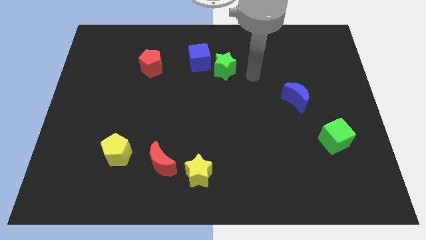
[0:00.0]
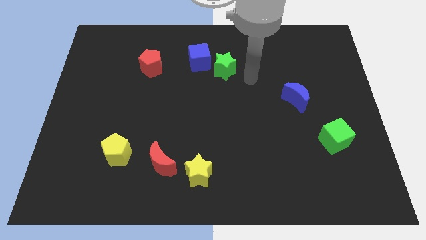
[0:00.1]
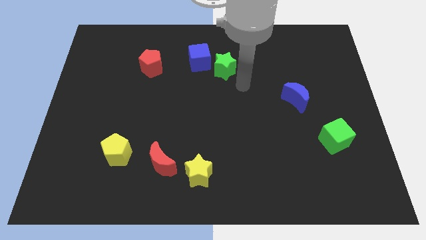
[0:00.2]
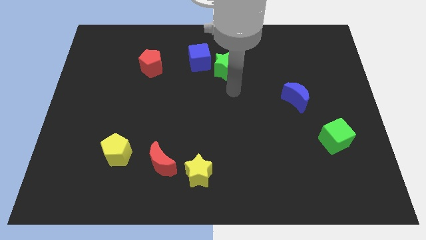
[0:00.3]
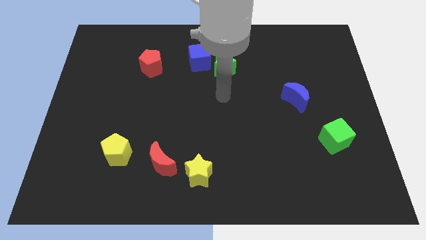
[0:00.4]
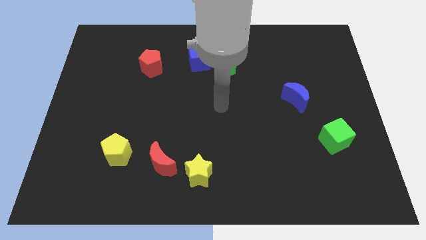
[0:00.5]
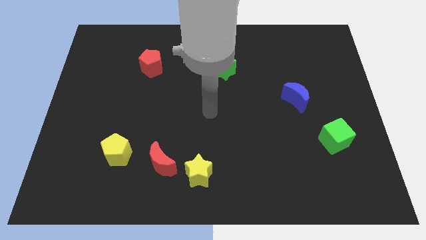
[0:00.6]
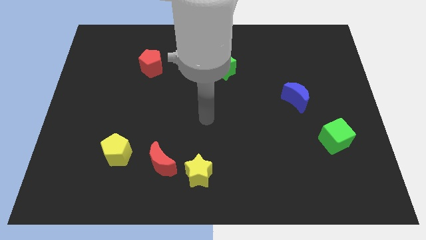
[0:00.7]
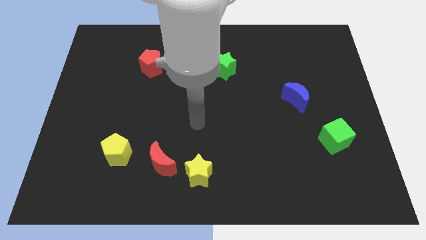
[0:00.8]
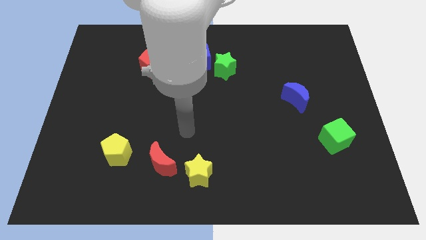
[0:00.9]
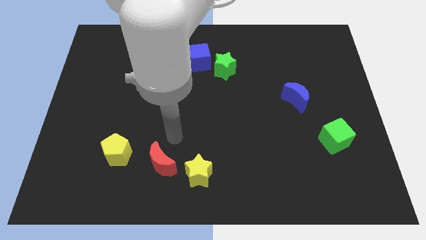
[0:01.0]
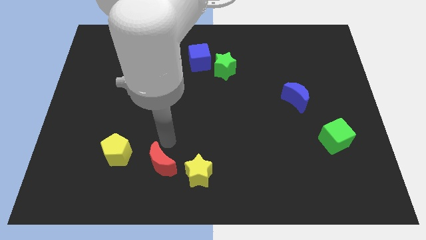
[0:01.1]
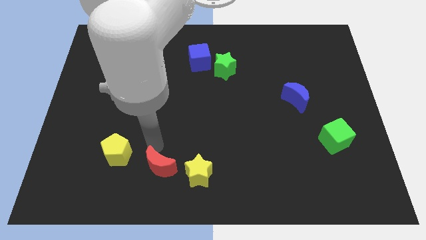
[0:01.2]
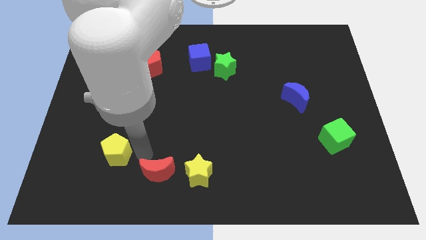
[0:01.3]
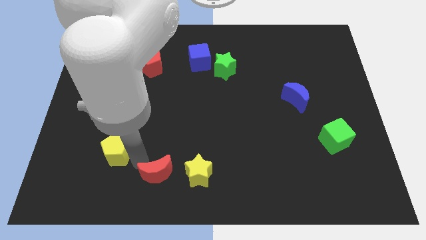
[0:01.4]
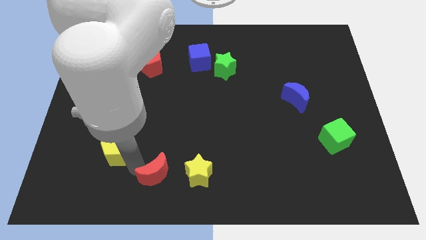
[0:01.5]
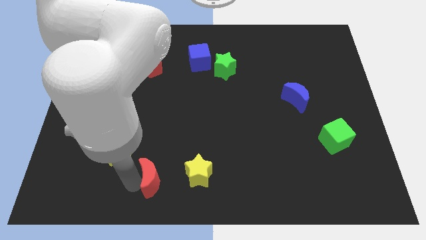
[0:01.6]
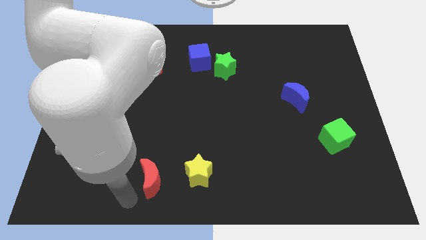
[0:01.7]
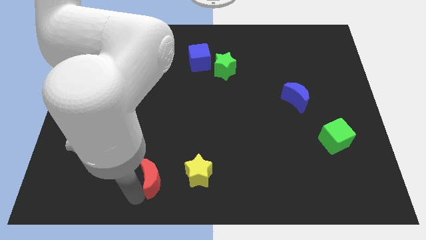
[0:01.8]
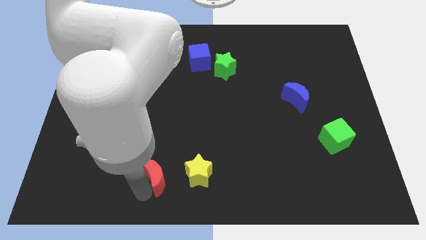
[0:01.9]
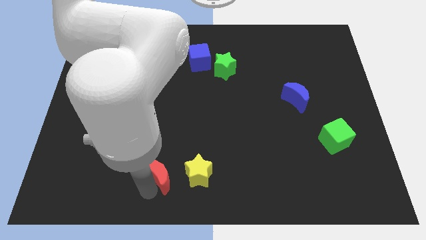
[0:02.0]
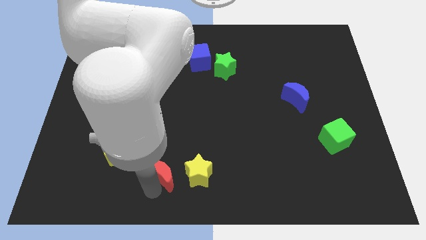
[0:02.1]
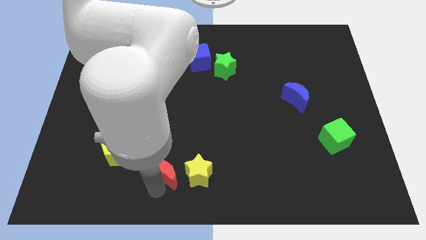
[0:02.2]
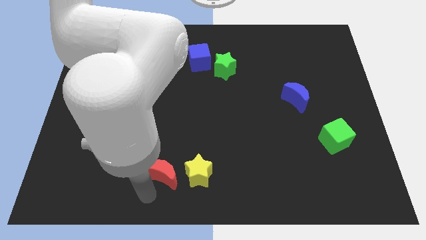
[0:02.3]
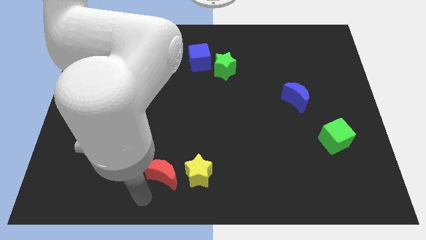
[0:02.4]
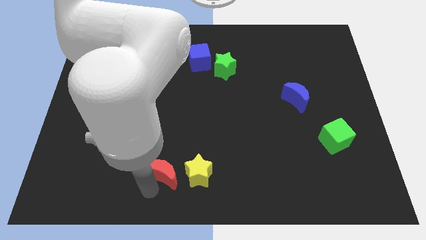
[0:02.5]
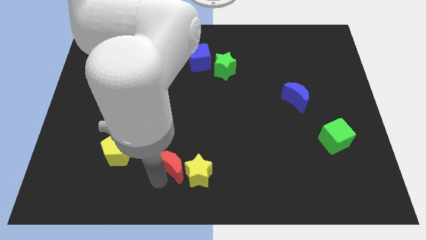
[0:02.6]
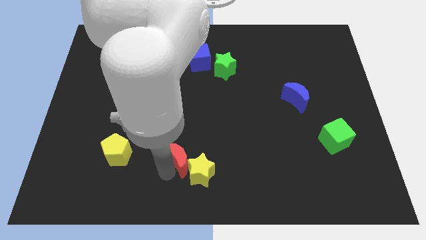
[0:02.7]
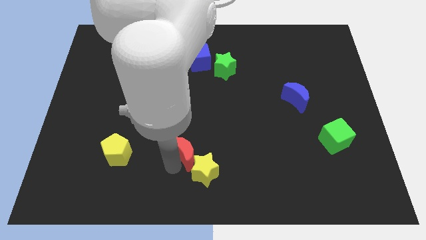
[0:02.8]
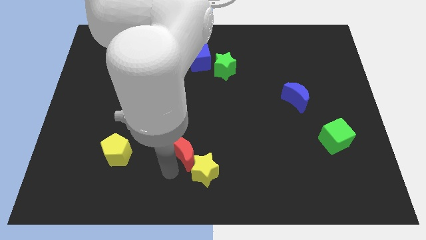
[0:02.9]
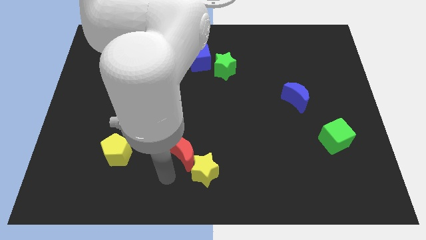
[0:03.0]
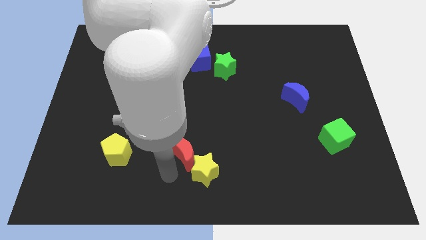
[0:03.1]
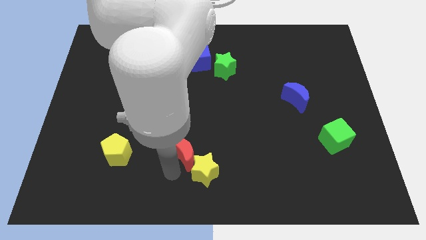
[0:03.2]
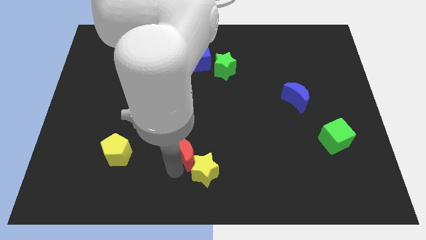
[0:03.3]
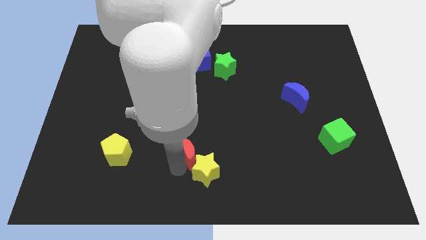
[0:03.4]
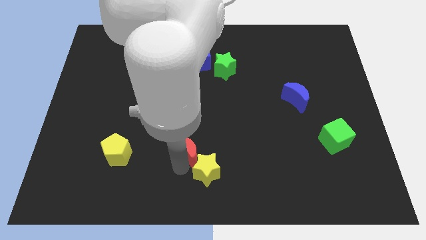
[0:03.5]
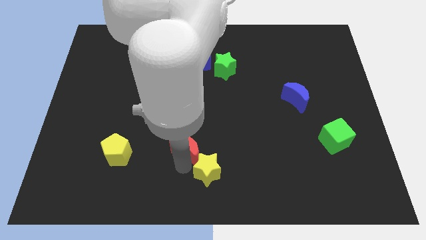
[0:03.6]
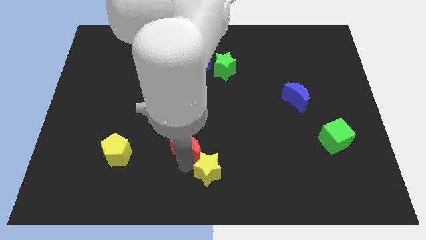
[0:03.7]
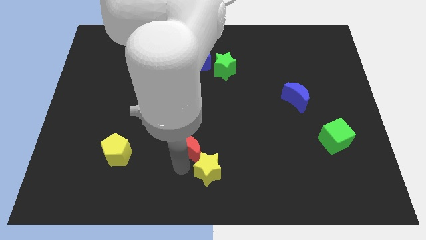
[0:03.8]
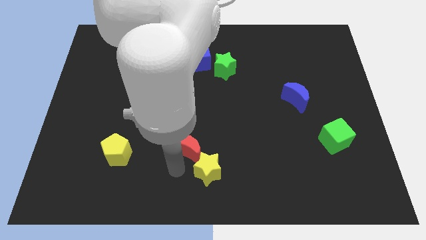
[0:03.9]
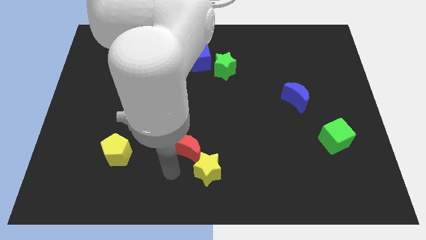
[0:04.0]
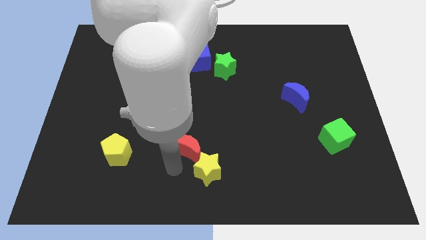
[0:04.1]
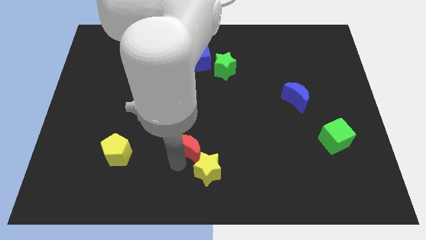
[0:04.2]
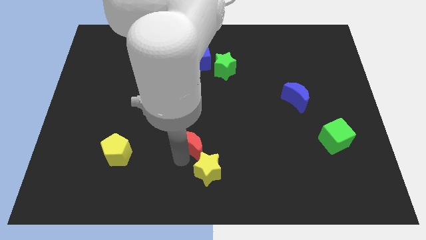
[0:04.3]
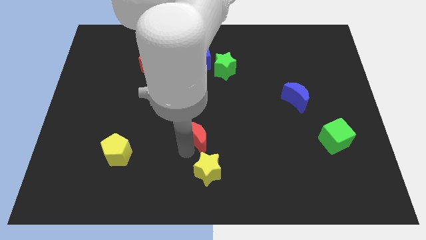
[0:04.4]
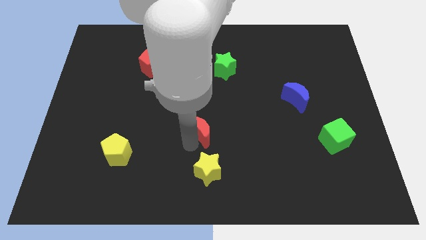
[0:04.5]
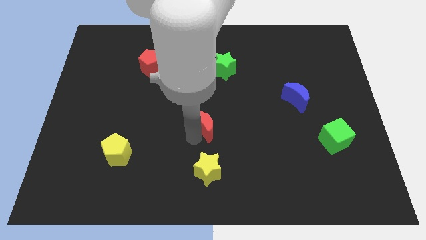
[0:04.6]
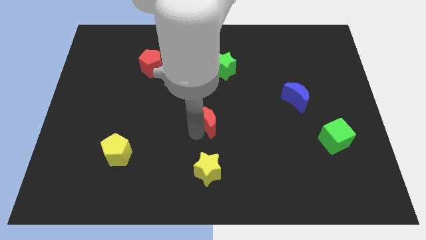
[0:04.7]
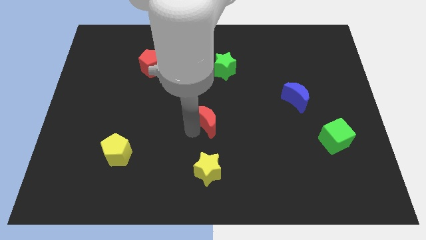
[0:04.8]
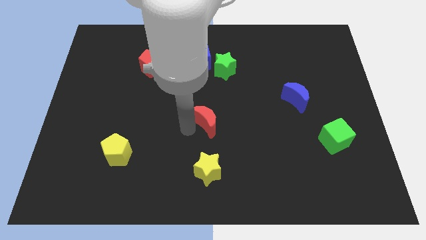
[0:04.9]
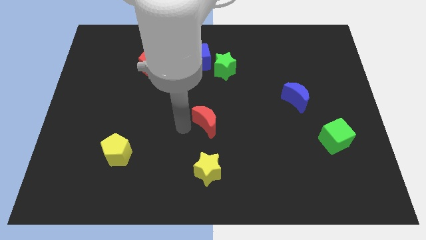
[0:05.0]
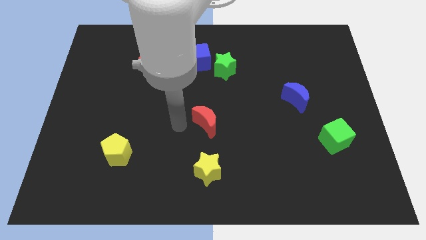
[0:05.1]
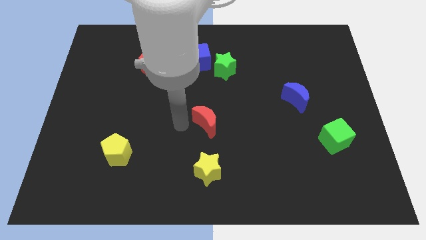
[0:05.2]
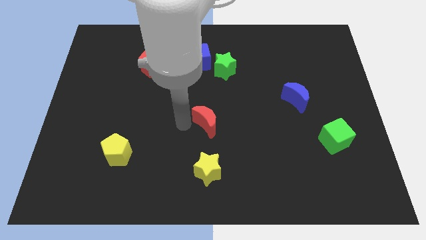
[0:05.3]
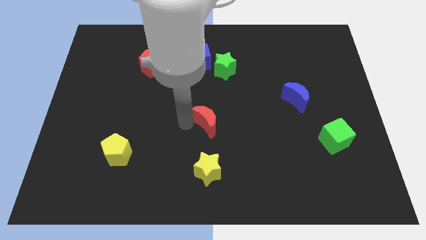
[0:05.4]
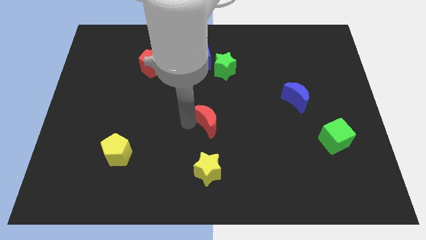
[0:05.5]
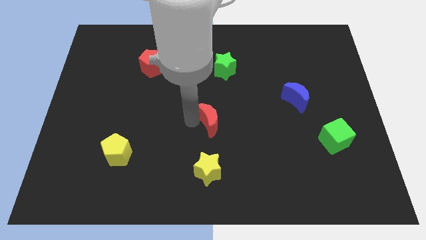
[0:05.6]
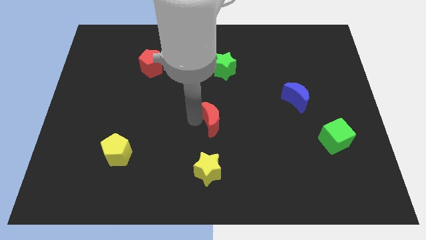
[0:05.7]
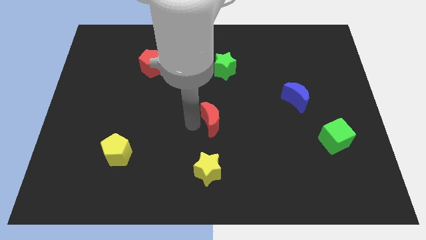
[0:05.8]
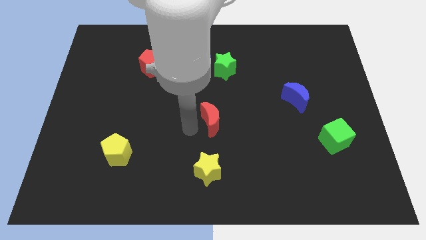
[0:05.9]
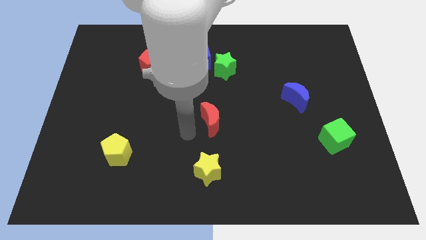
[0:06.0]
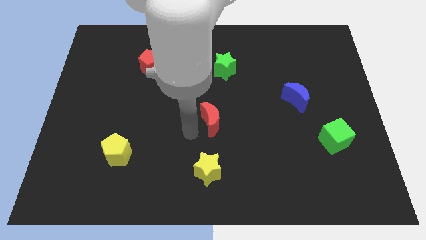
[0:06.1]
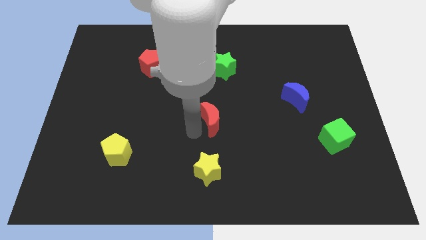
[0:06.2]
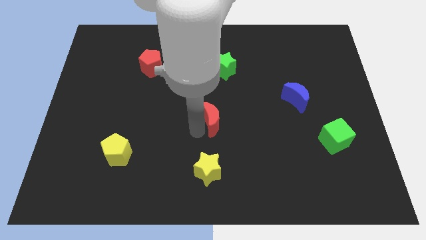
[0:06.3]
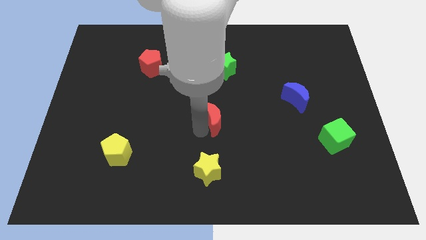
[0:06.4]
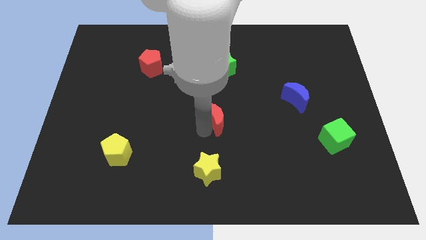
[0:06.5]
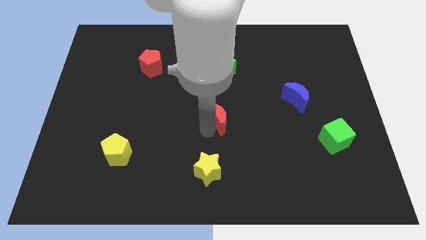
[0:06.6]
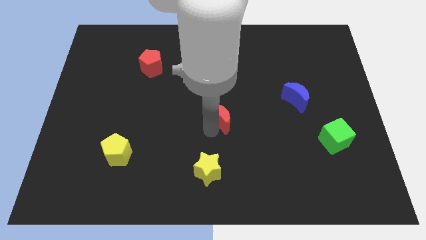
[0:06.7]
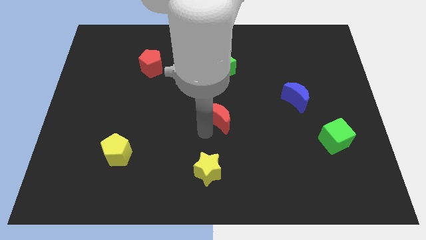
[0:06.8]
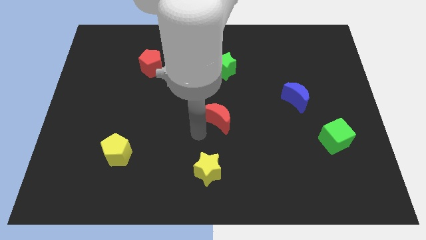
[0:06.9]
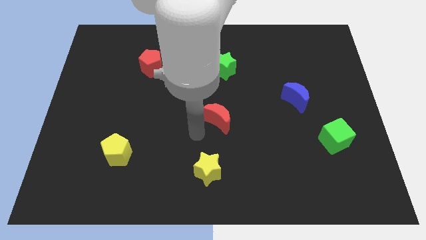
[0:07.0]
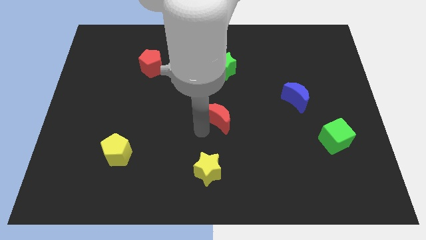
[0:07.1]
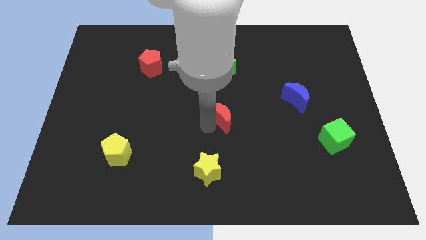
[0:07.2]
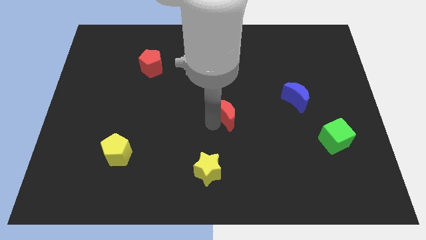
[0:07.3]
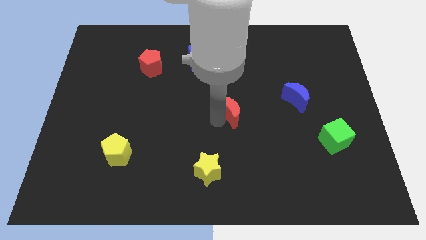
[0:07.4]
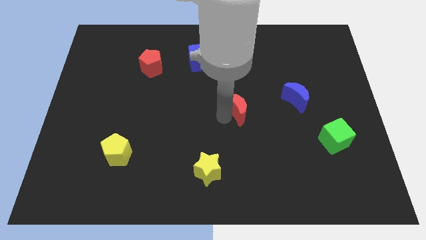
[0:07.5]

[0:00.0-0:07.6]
slide the red moon to the left side of the blue moon
